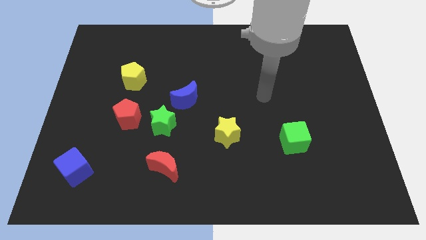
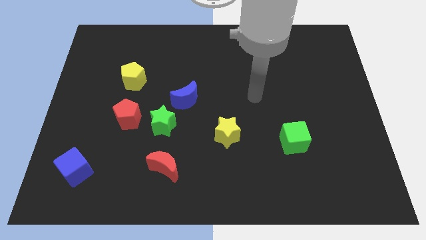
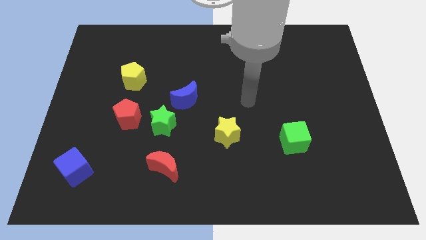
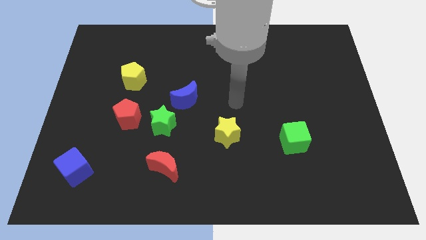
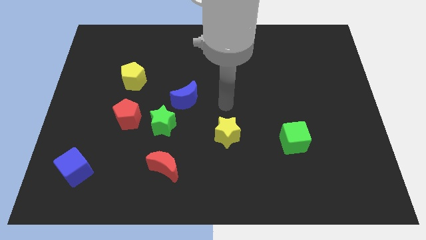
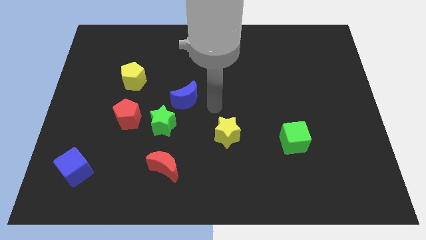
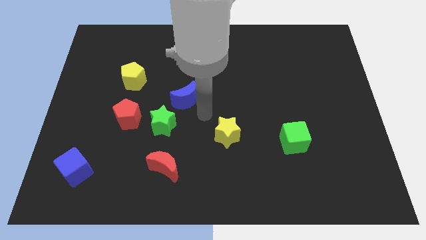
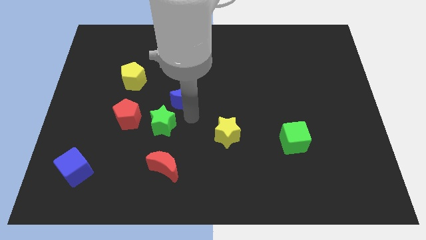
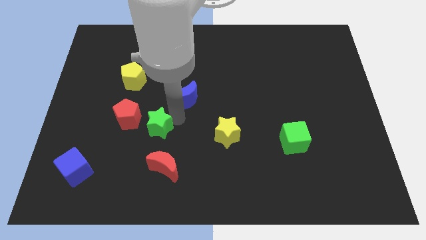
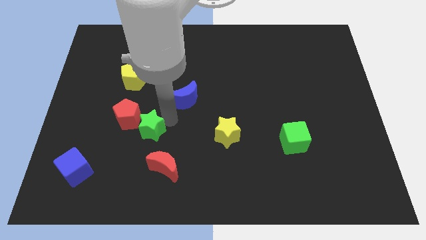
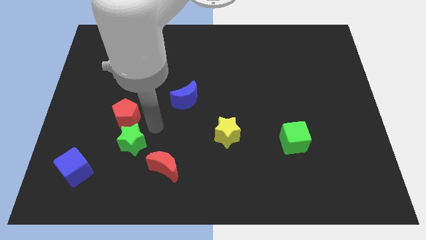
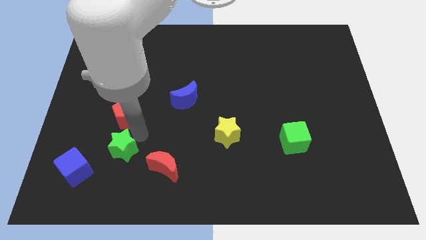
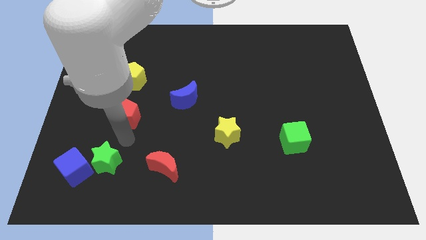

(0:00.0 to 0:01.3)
pull the red pentagon apart from the green star

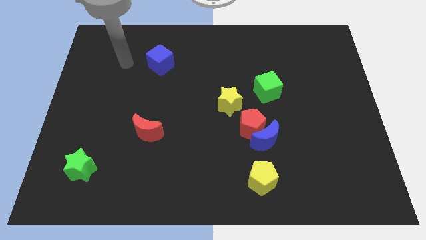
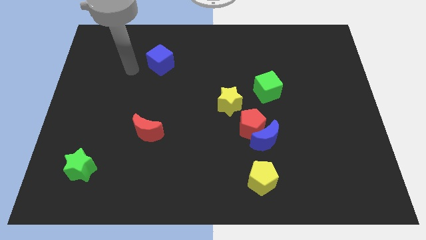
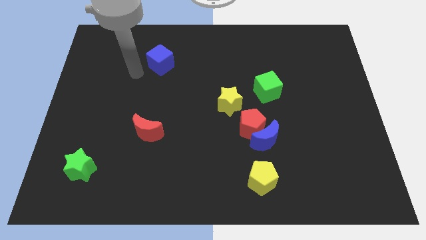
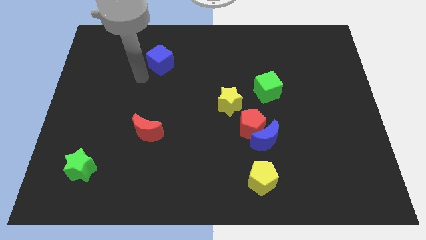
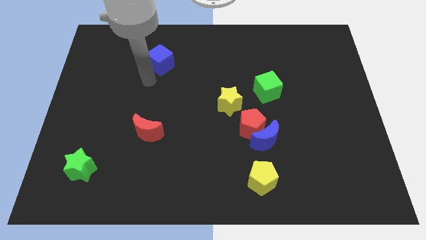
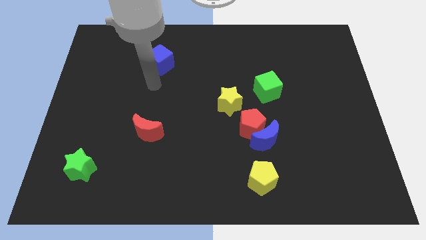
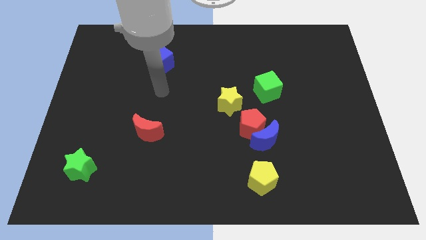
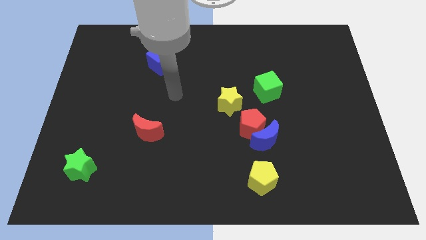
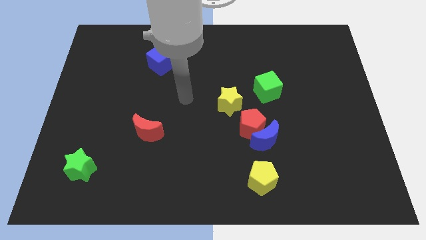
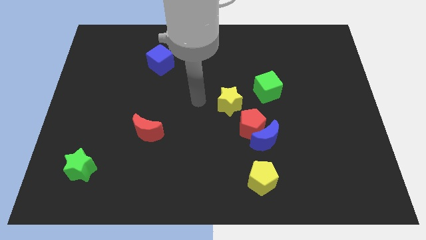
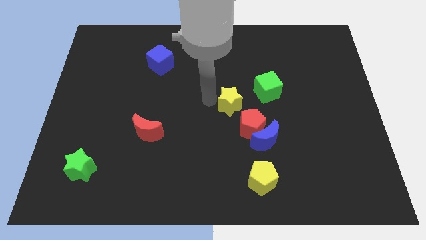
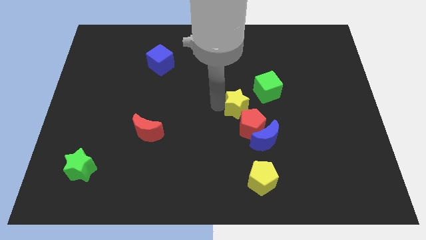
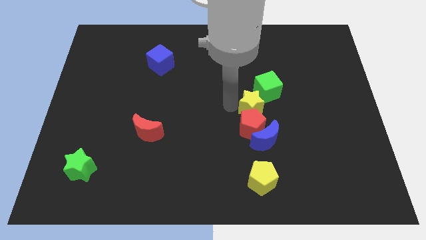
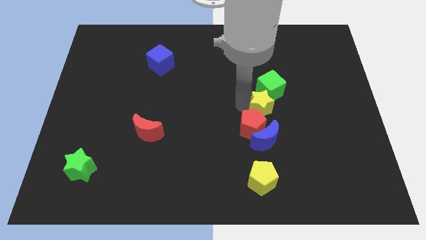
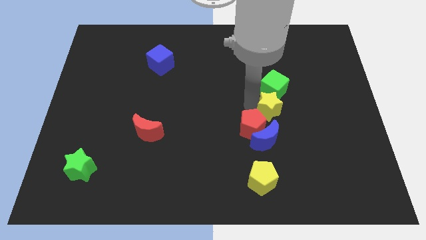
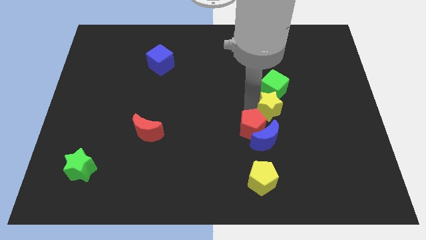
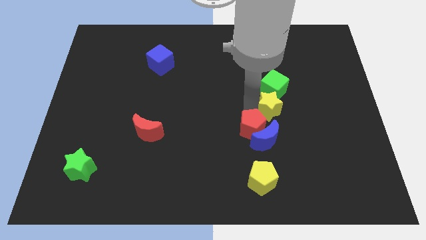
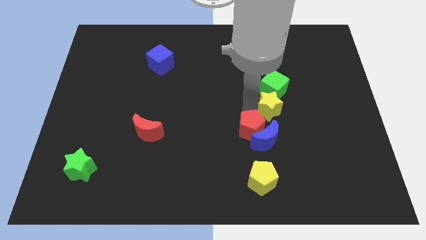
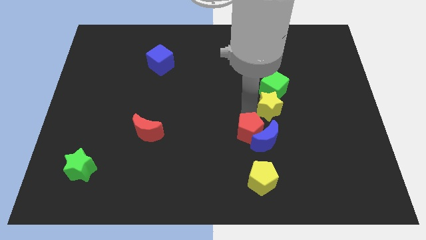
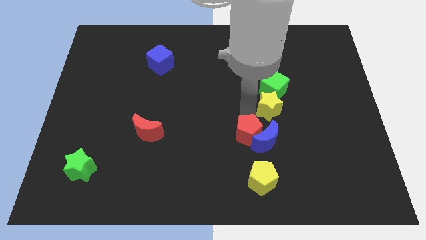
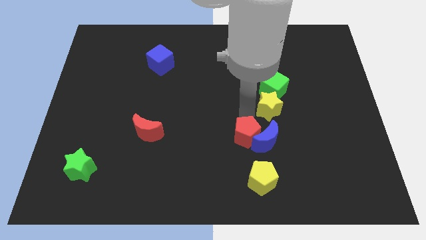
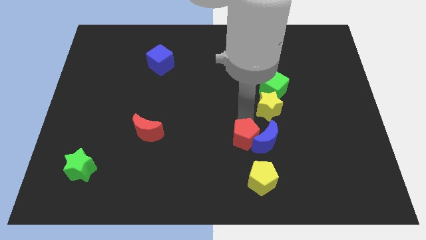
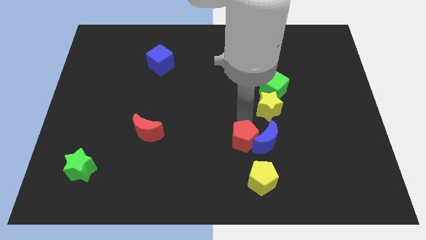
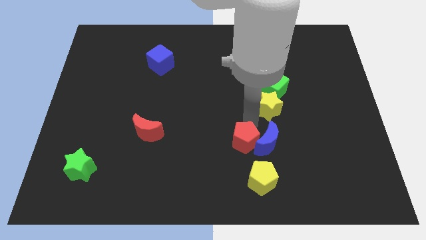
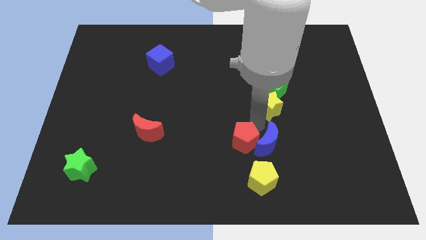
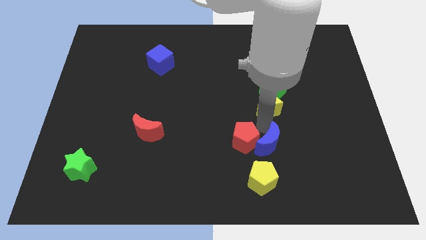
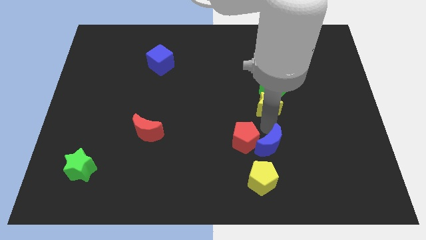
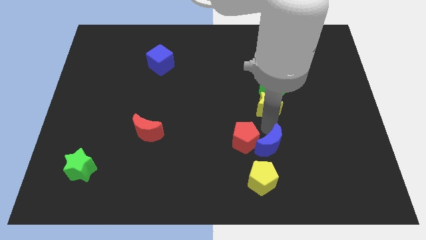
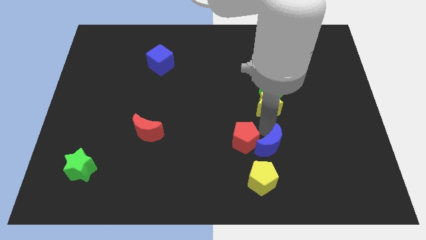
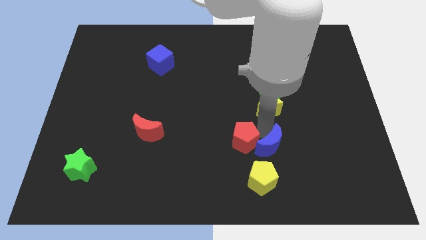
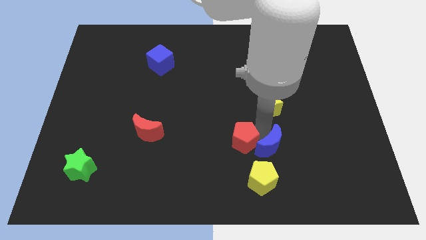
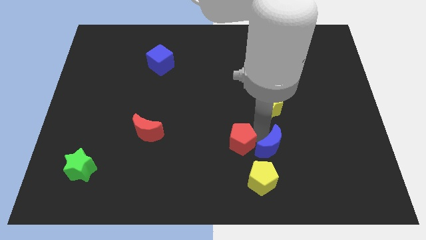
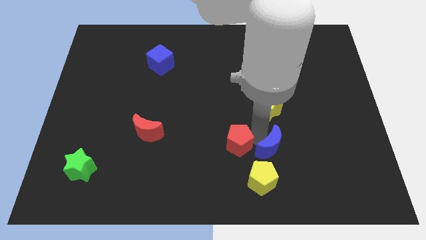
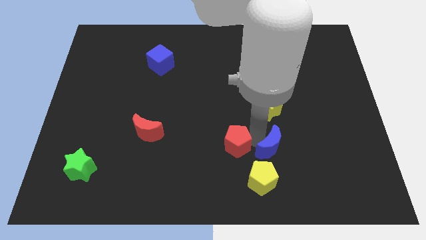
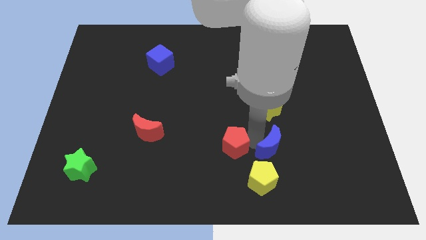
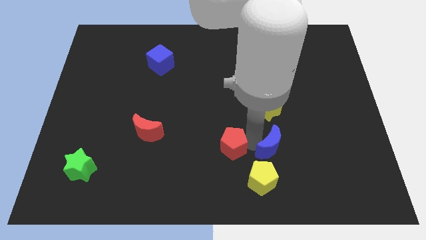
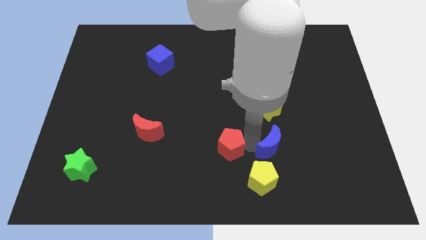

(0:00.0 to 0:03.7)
move the red pentagon away from the blue moon and yellow star

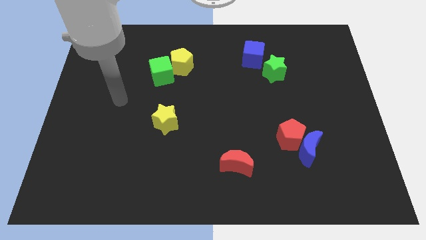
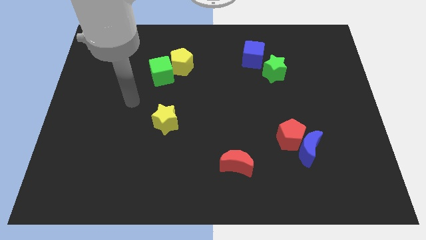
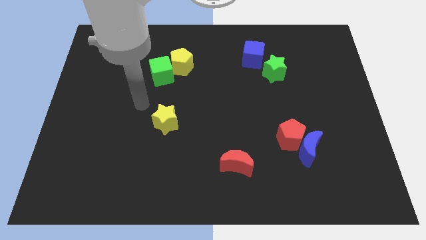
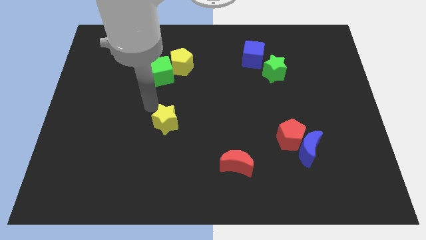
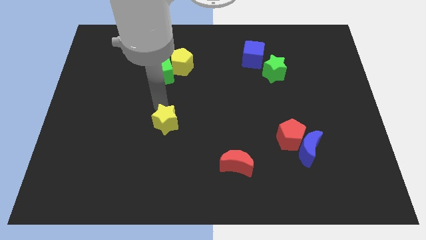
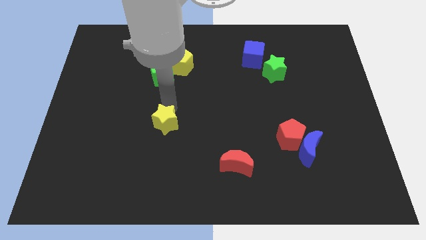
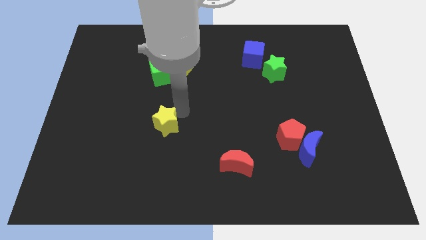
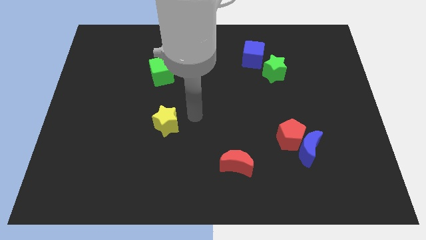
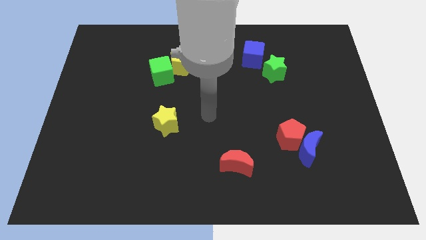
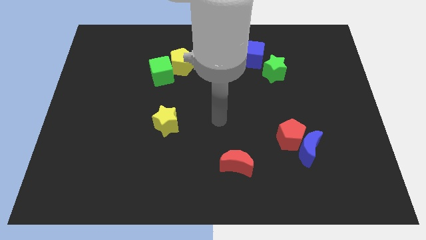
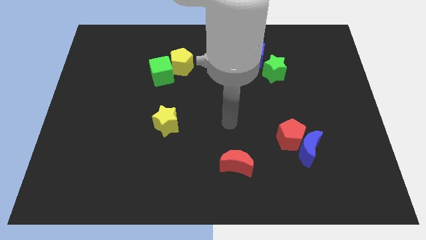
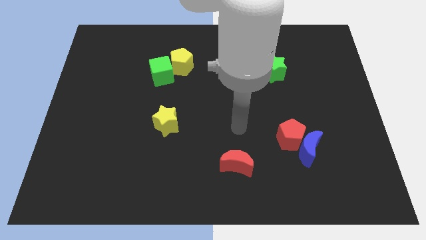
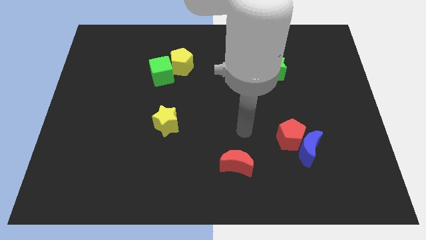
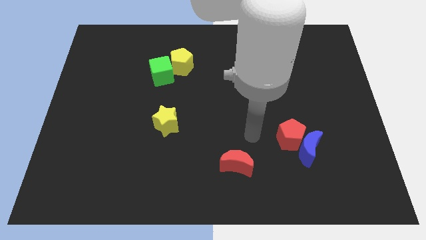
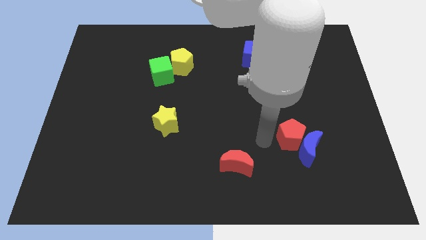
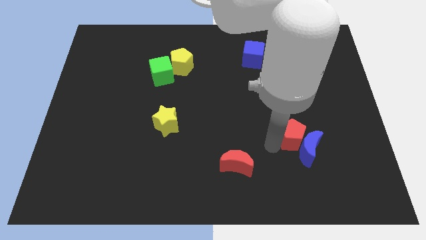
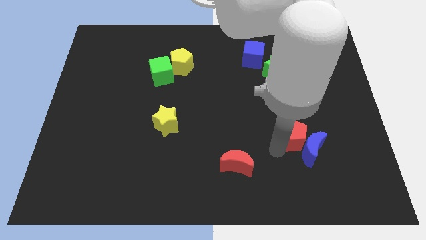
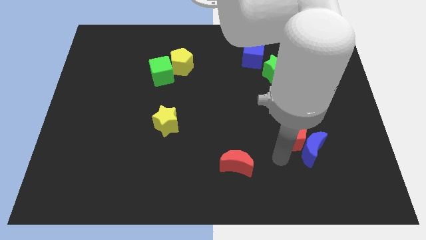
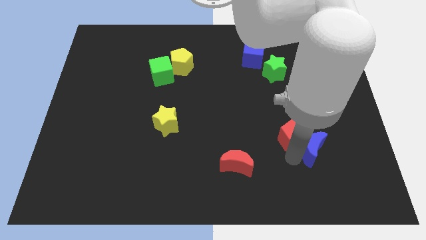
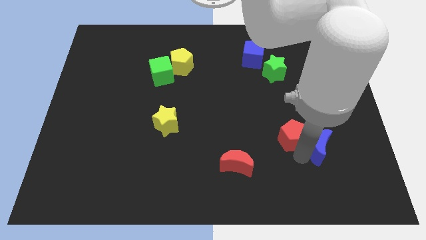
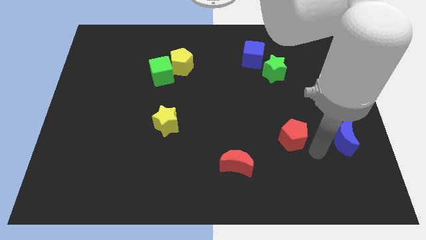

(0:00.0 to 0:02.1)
pull the red pentagon apart from the blue moon

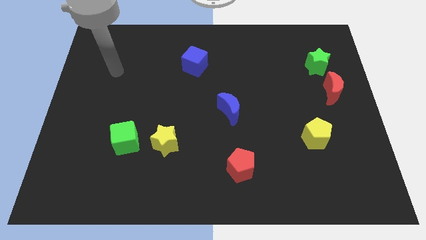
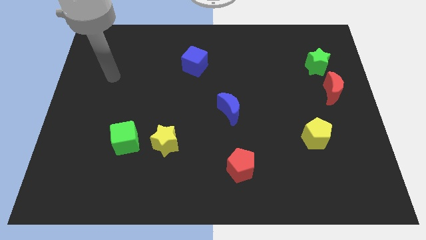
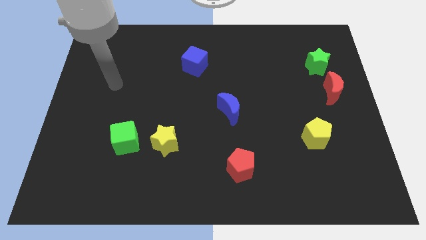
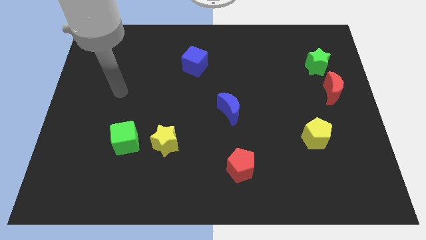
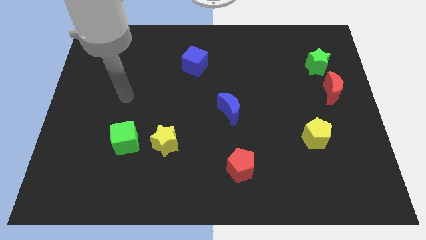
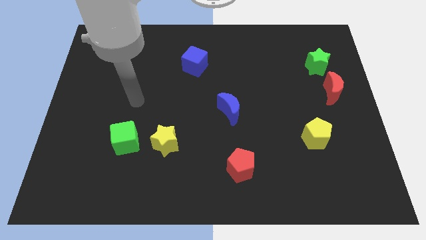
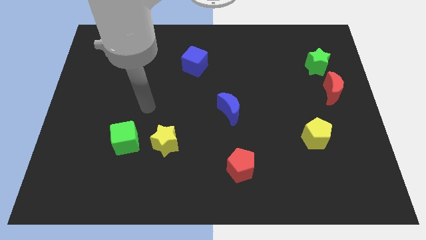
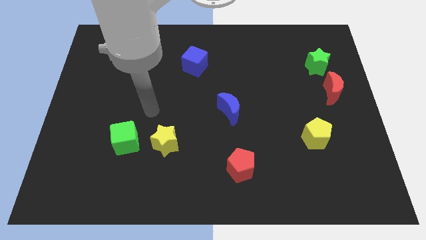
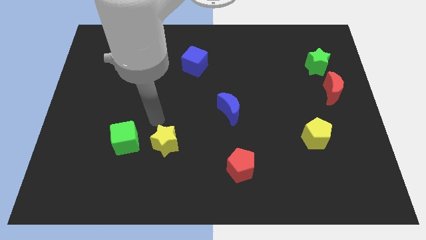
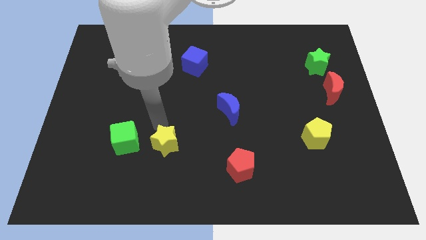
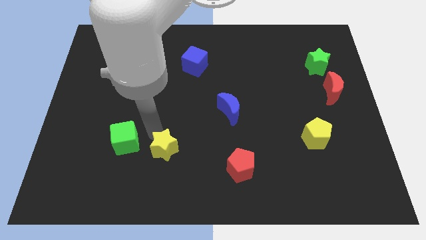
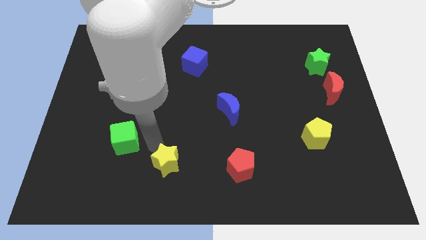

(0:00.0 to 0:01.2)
pull the green cube apart from the yellow star

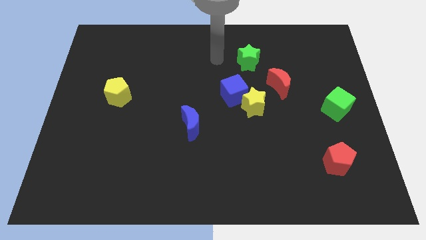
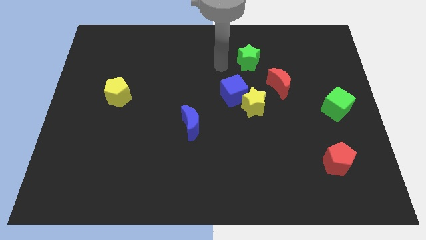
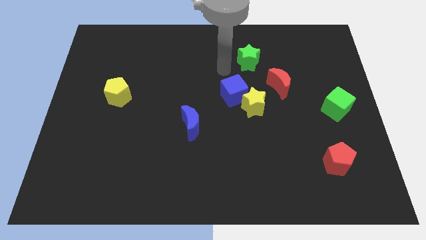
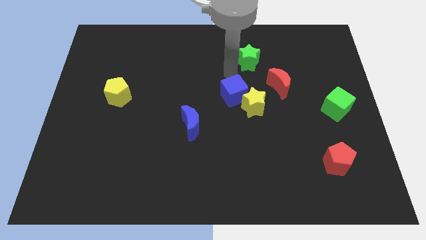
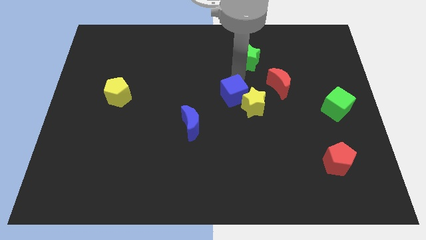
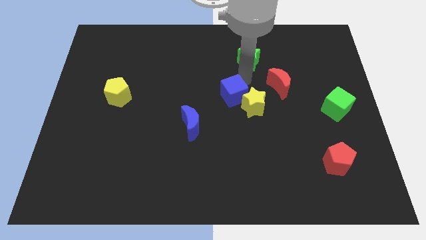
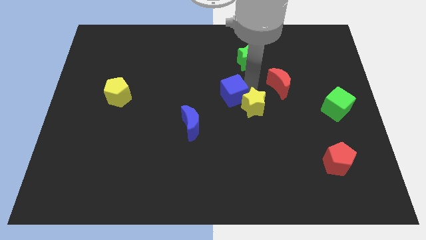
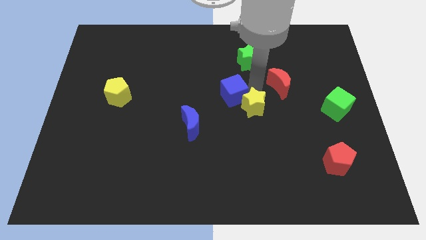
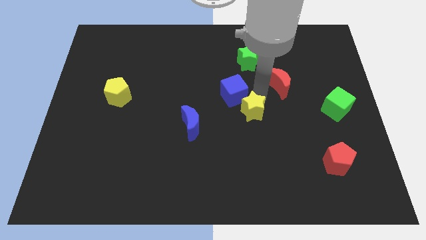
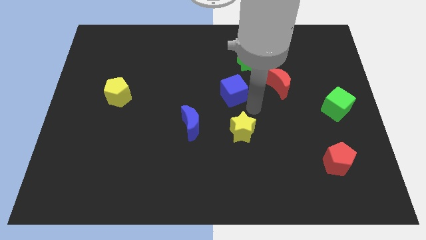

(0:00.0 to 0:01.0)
separate the blue cube from the yellow star
